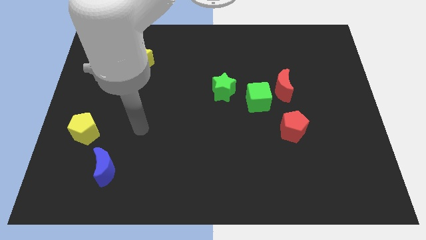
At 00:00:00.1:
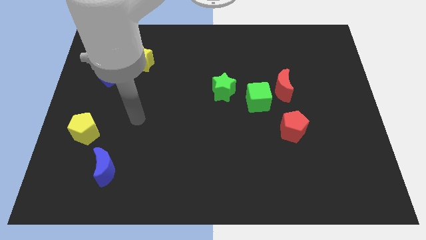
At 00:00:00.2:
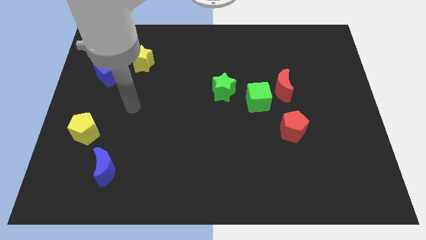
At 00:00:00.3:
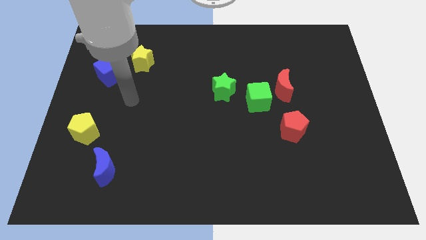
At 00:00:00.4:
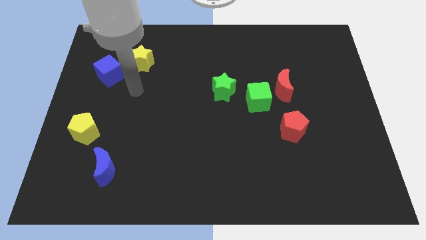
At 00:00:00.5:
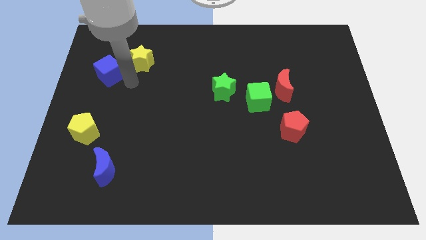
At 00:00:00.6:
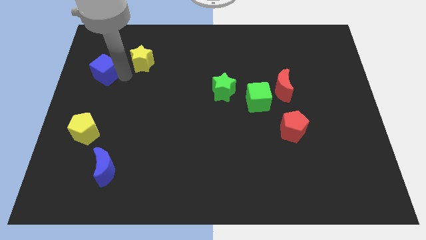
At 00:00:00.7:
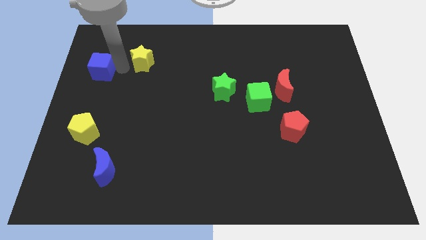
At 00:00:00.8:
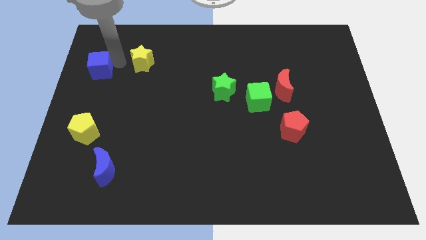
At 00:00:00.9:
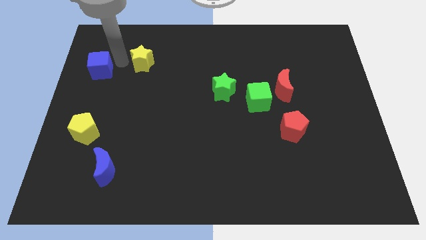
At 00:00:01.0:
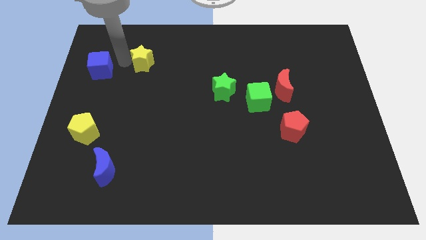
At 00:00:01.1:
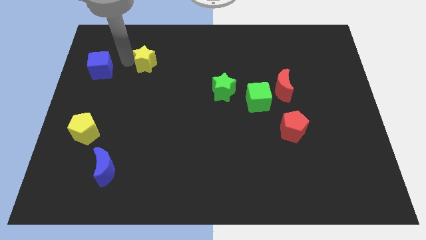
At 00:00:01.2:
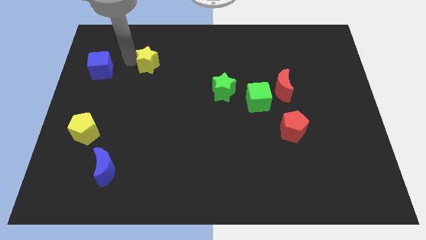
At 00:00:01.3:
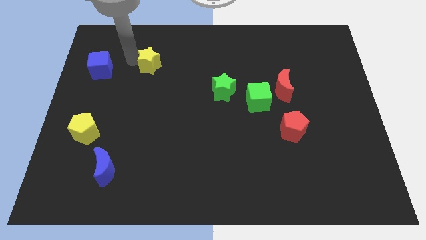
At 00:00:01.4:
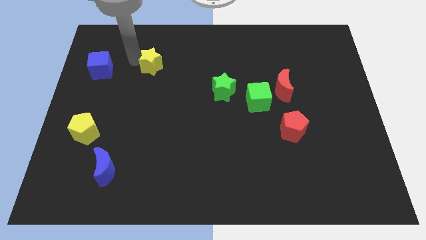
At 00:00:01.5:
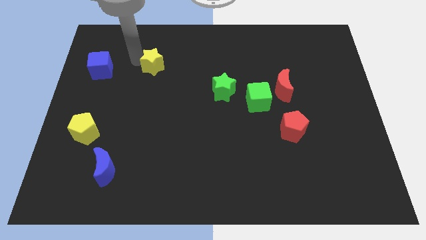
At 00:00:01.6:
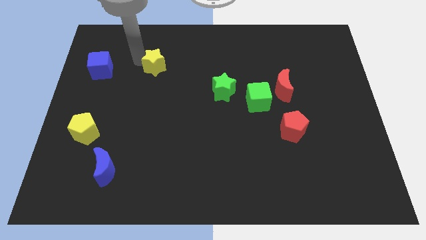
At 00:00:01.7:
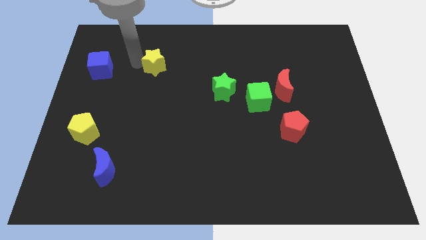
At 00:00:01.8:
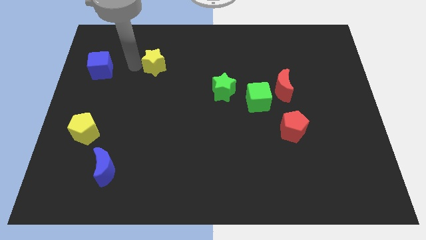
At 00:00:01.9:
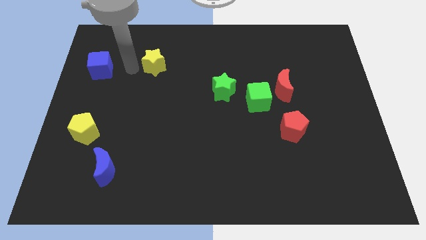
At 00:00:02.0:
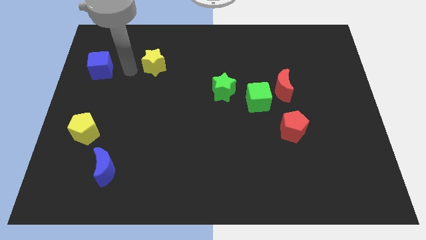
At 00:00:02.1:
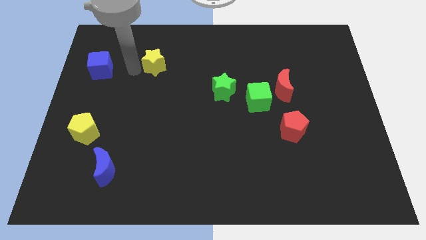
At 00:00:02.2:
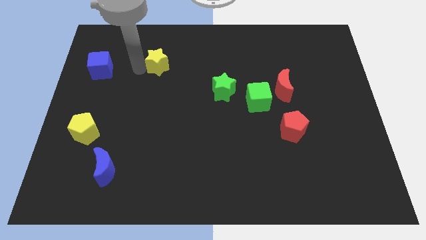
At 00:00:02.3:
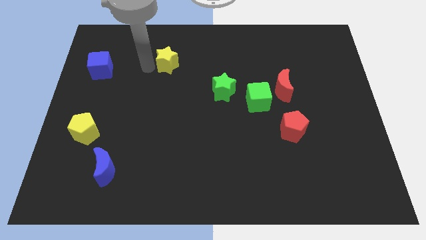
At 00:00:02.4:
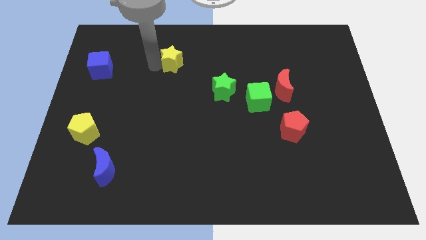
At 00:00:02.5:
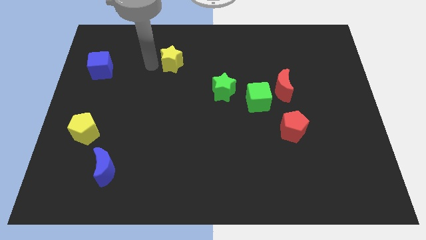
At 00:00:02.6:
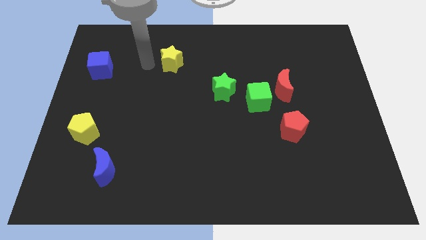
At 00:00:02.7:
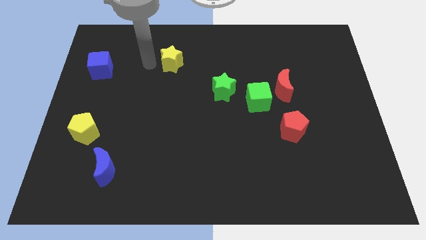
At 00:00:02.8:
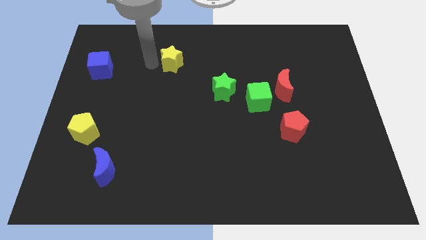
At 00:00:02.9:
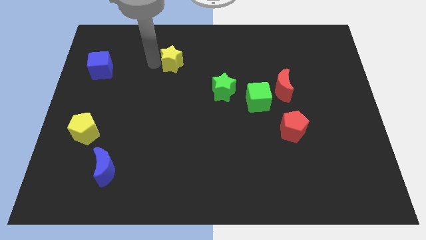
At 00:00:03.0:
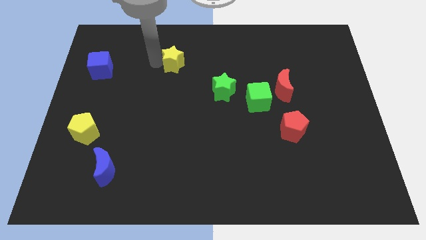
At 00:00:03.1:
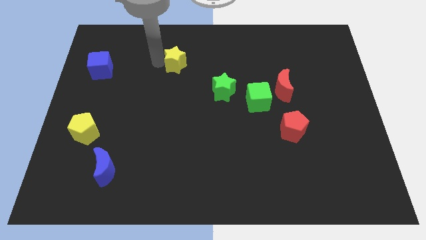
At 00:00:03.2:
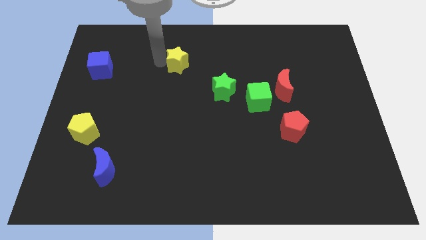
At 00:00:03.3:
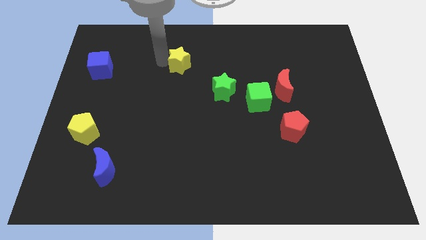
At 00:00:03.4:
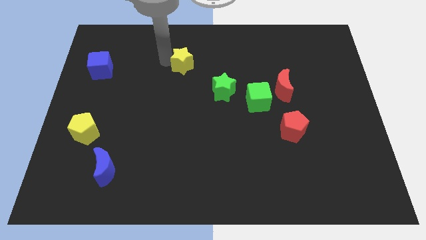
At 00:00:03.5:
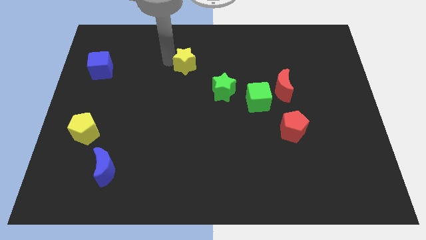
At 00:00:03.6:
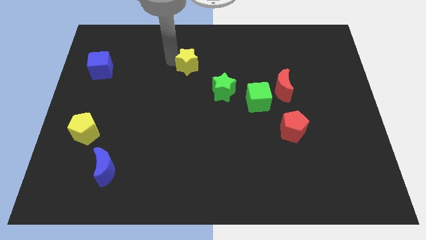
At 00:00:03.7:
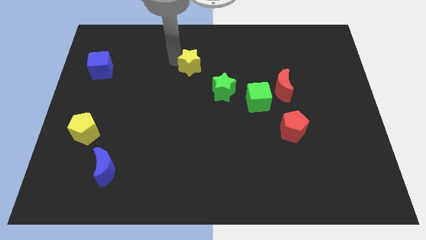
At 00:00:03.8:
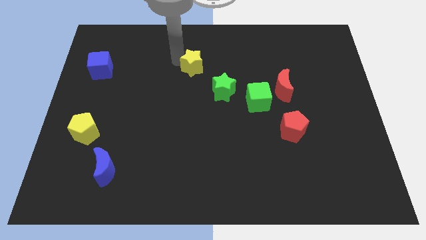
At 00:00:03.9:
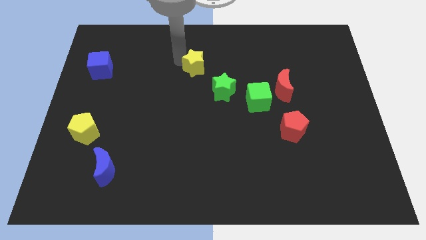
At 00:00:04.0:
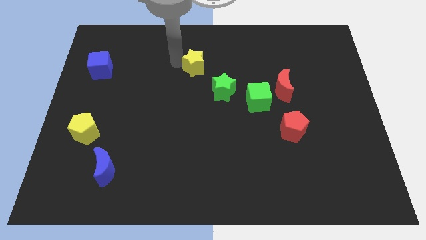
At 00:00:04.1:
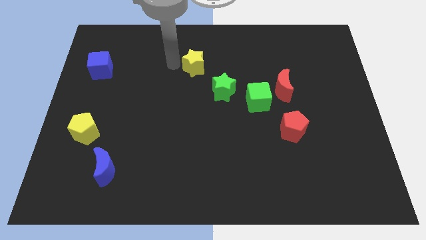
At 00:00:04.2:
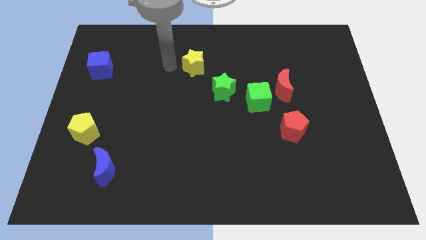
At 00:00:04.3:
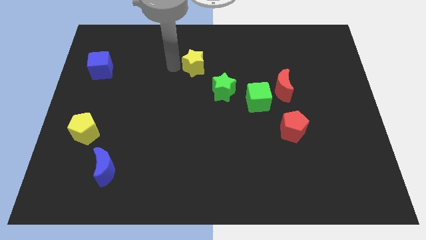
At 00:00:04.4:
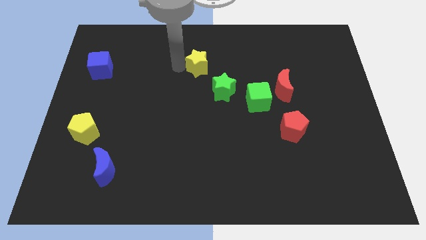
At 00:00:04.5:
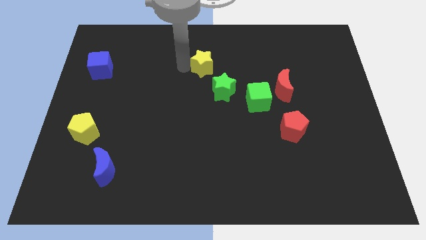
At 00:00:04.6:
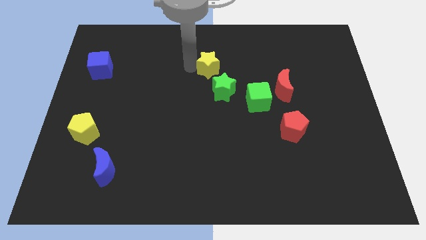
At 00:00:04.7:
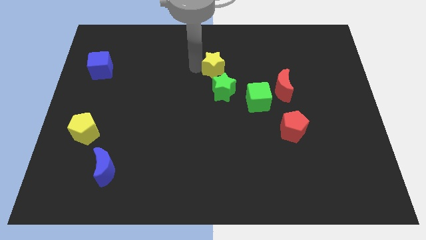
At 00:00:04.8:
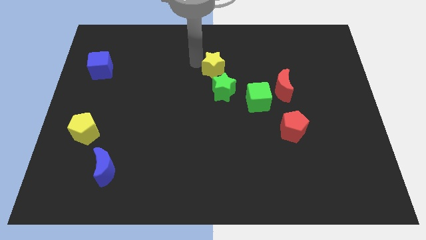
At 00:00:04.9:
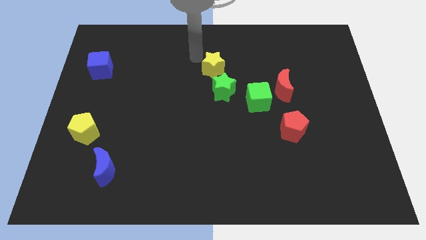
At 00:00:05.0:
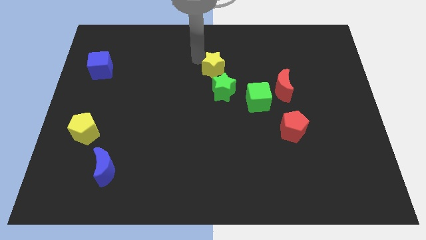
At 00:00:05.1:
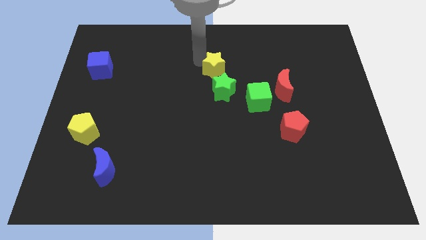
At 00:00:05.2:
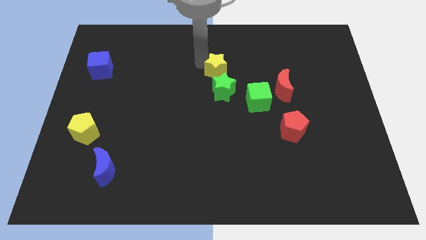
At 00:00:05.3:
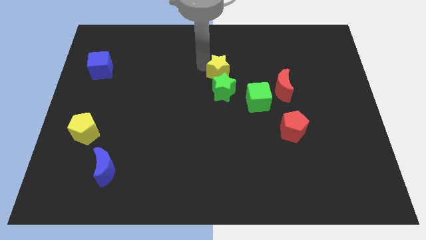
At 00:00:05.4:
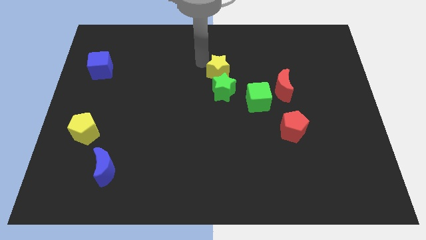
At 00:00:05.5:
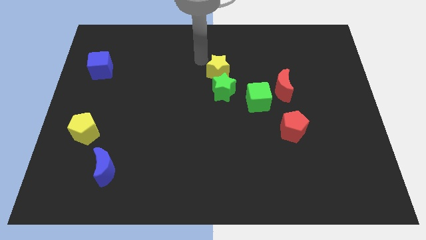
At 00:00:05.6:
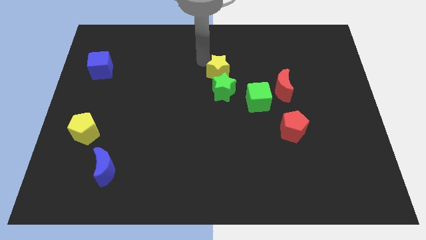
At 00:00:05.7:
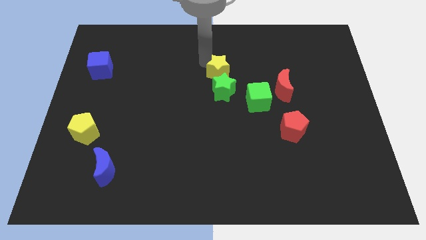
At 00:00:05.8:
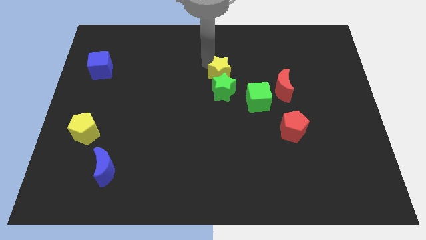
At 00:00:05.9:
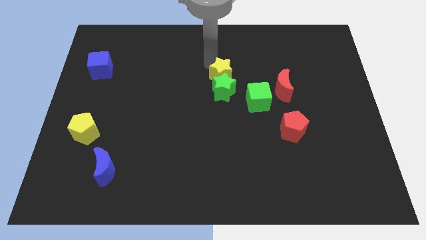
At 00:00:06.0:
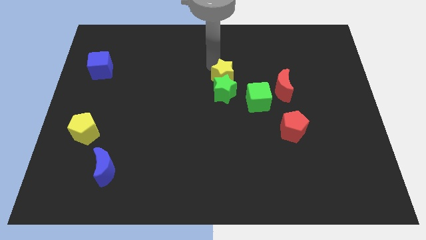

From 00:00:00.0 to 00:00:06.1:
move the yellow star left of the red moon

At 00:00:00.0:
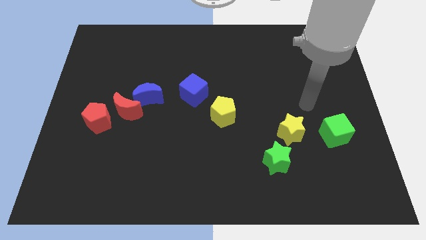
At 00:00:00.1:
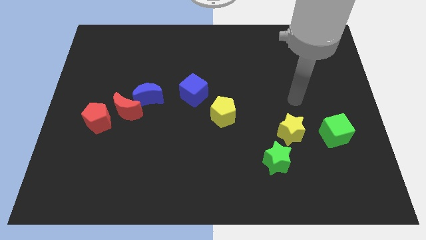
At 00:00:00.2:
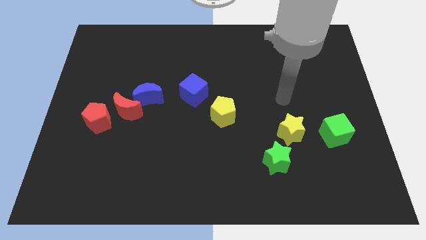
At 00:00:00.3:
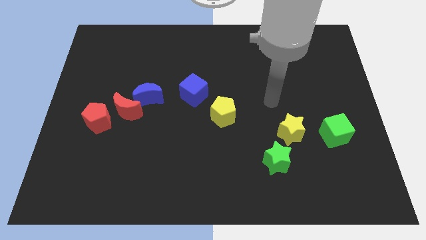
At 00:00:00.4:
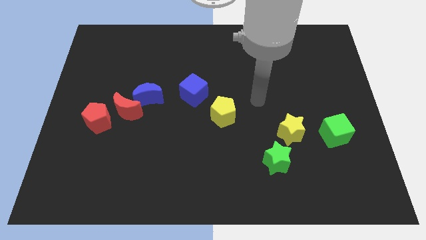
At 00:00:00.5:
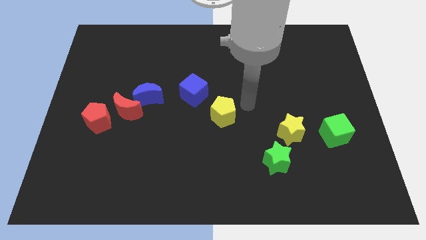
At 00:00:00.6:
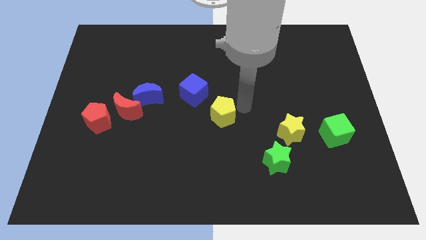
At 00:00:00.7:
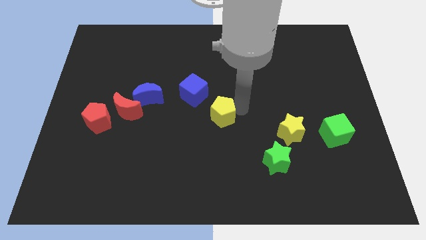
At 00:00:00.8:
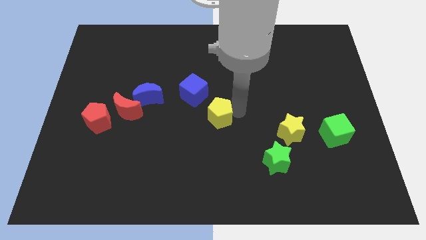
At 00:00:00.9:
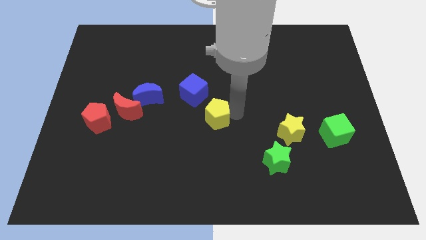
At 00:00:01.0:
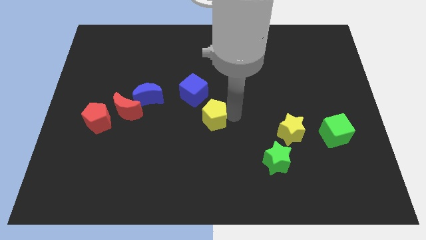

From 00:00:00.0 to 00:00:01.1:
move the yellow pentagon to the bottom side of the blue cube

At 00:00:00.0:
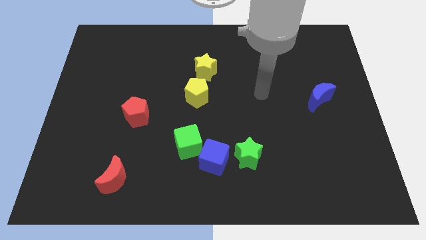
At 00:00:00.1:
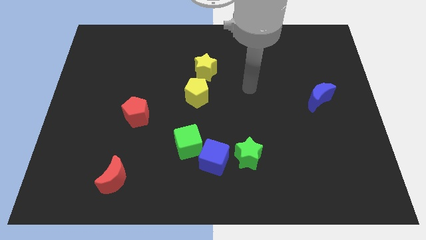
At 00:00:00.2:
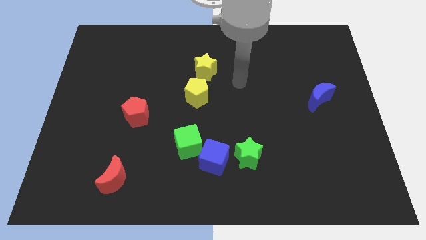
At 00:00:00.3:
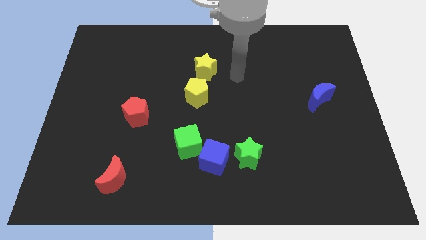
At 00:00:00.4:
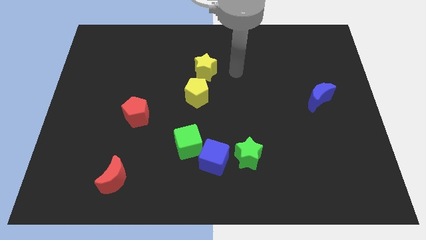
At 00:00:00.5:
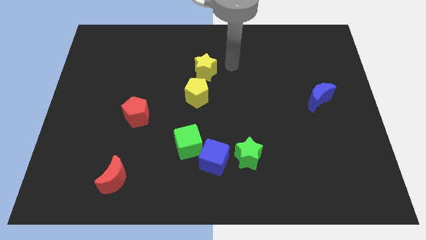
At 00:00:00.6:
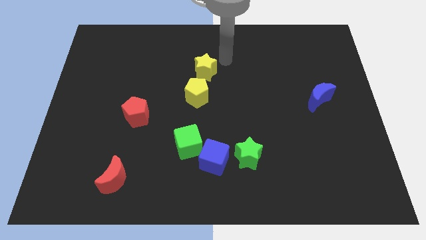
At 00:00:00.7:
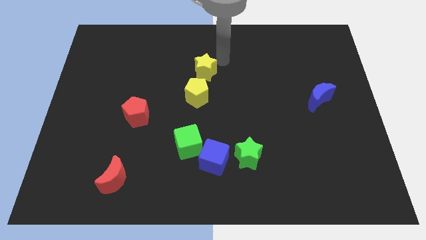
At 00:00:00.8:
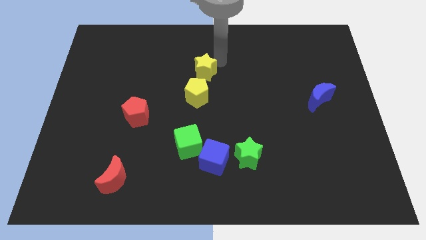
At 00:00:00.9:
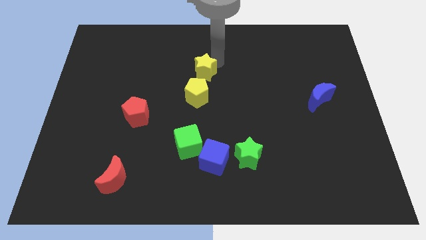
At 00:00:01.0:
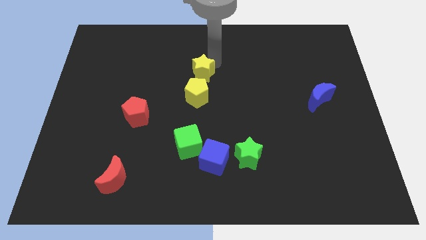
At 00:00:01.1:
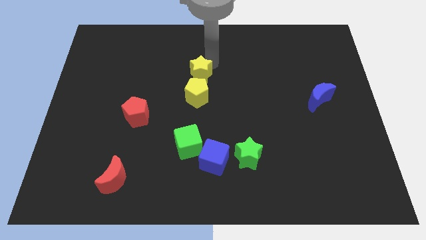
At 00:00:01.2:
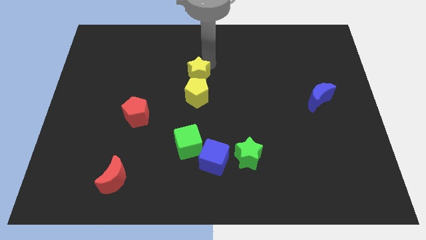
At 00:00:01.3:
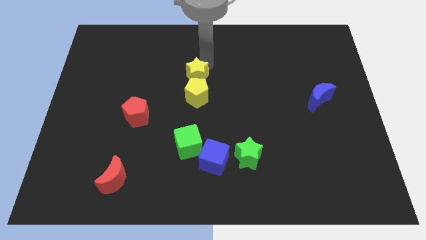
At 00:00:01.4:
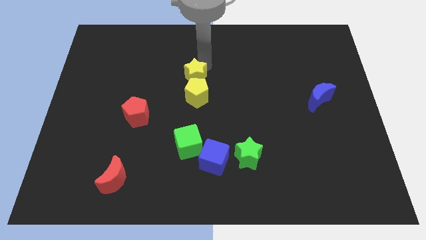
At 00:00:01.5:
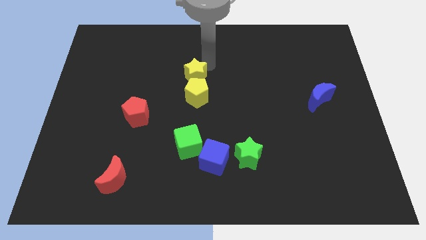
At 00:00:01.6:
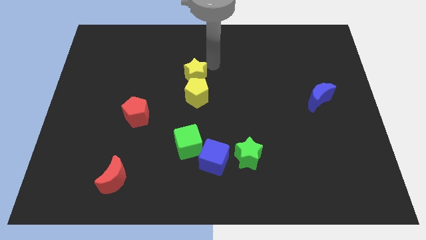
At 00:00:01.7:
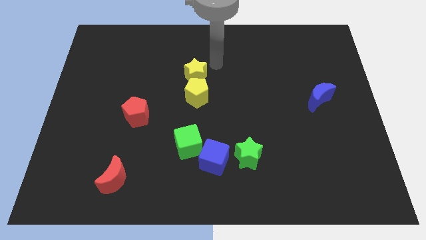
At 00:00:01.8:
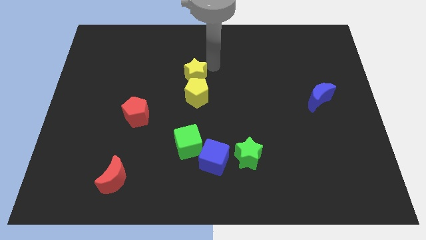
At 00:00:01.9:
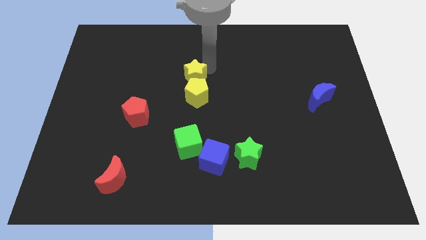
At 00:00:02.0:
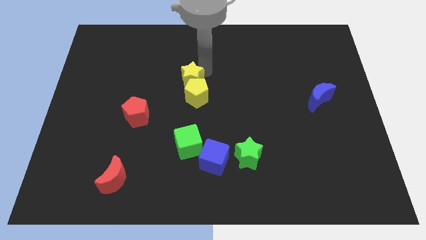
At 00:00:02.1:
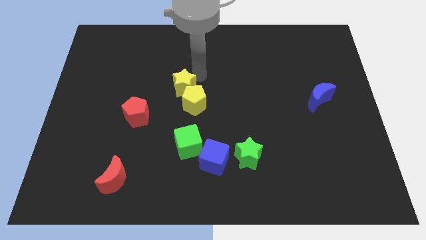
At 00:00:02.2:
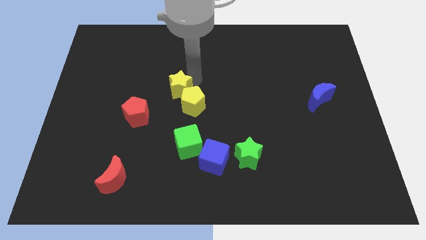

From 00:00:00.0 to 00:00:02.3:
put the yellow star to the top right of the red pentagon
